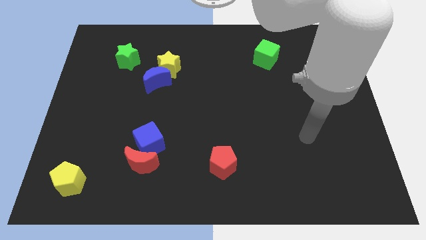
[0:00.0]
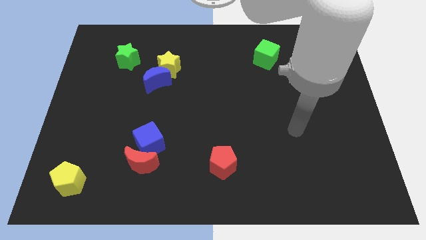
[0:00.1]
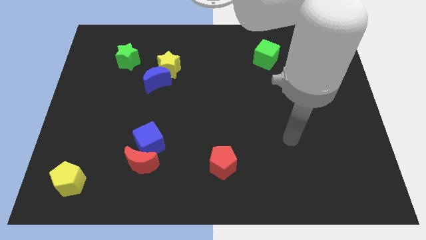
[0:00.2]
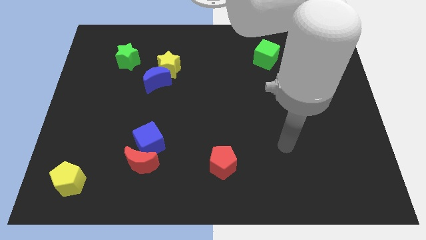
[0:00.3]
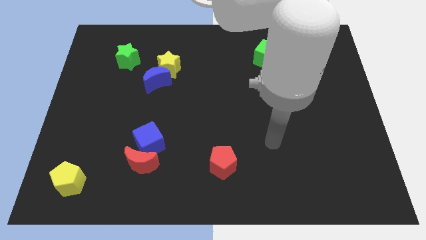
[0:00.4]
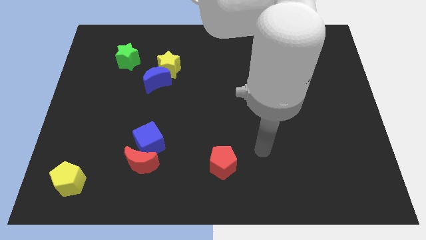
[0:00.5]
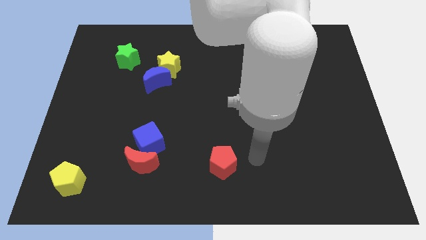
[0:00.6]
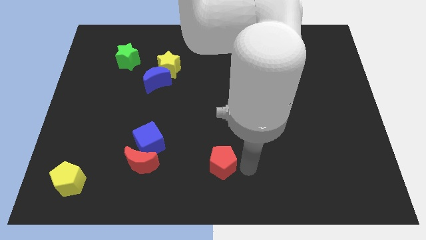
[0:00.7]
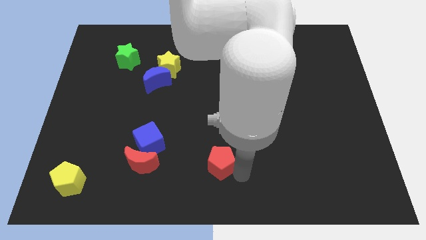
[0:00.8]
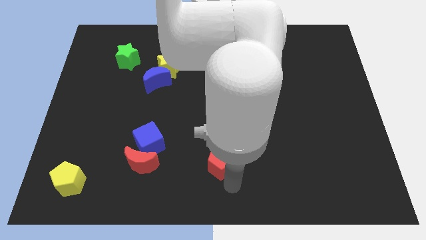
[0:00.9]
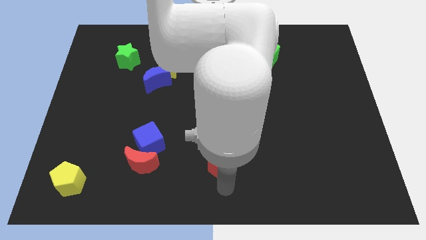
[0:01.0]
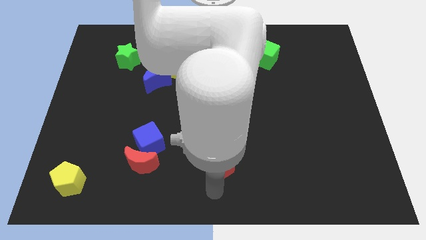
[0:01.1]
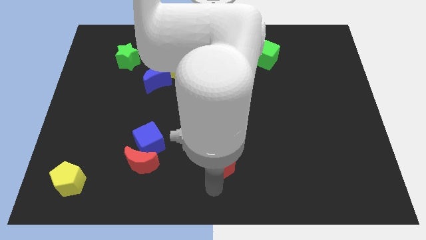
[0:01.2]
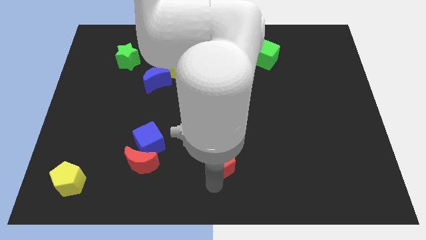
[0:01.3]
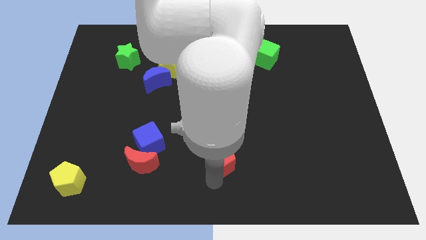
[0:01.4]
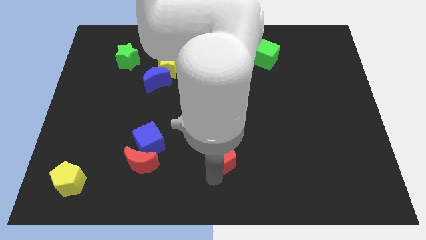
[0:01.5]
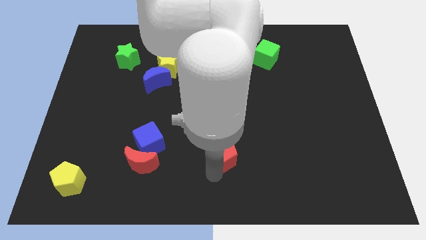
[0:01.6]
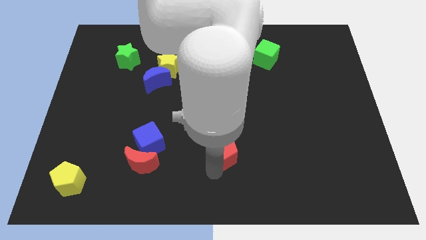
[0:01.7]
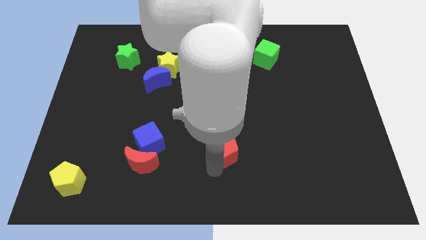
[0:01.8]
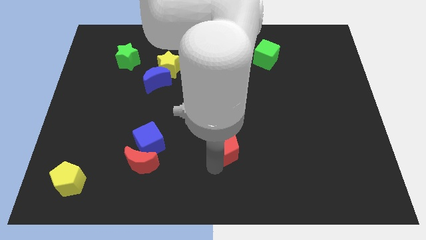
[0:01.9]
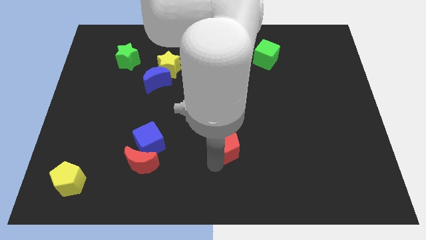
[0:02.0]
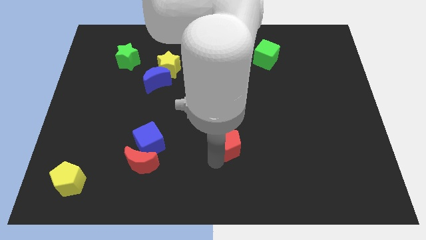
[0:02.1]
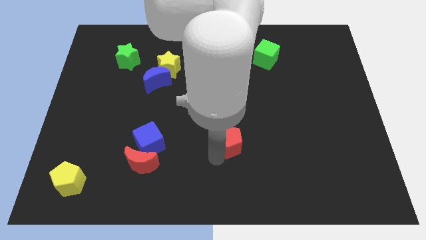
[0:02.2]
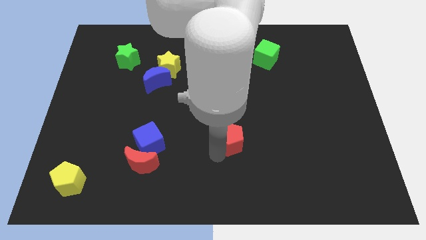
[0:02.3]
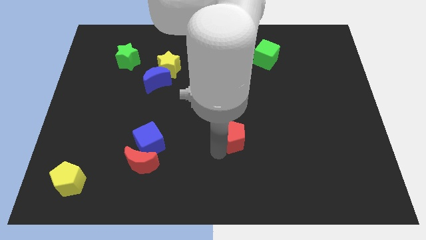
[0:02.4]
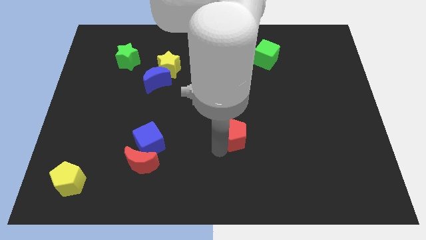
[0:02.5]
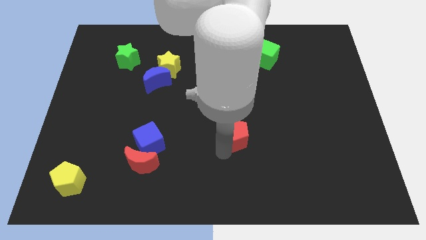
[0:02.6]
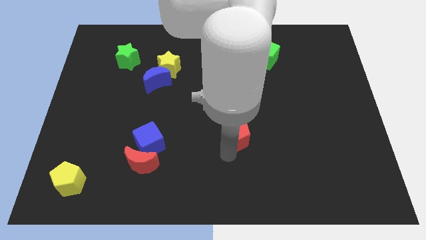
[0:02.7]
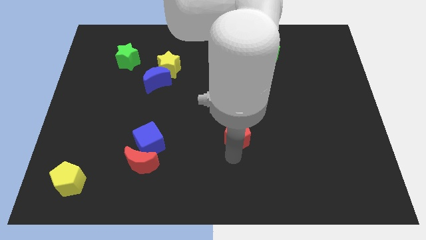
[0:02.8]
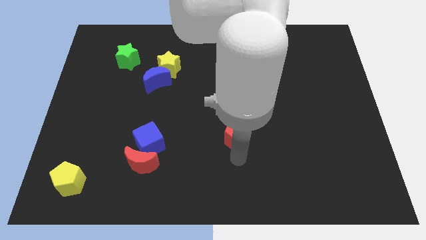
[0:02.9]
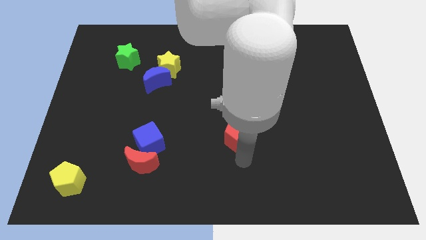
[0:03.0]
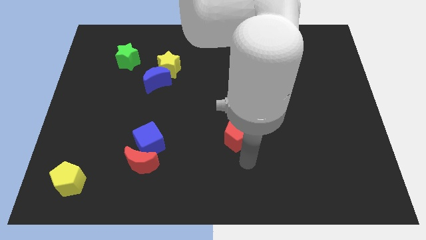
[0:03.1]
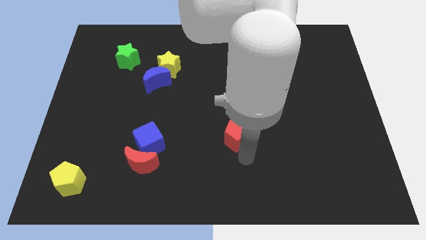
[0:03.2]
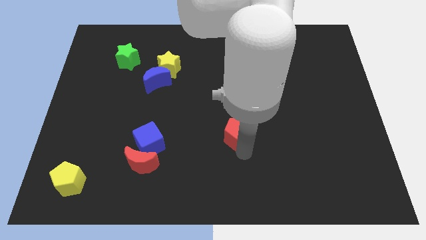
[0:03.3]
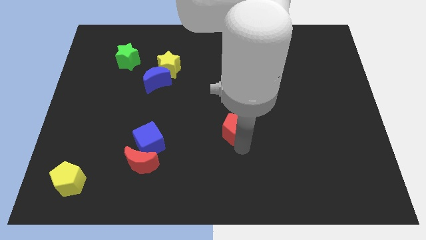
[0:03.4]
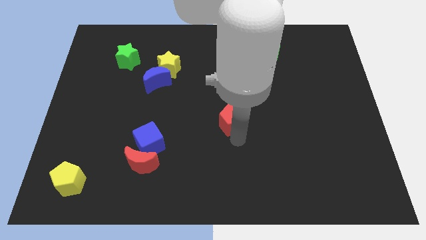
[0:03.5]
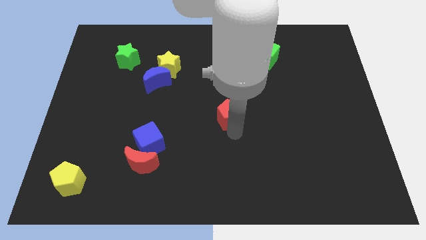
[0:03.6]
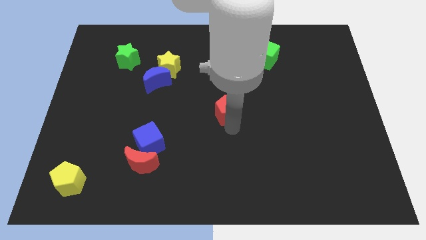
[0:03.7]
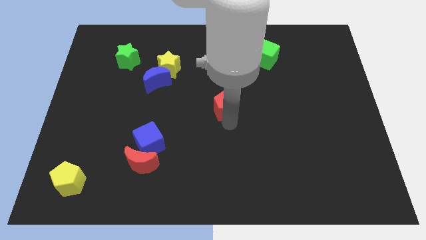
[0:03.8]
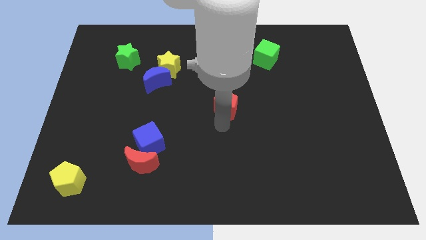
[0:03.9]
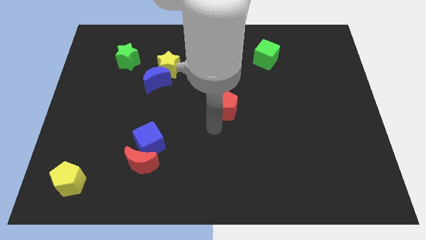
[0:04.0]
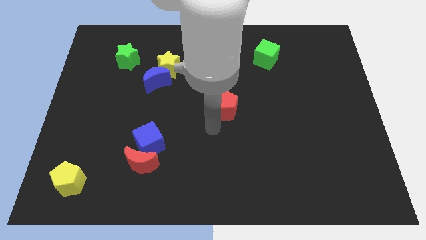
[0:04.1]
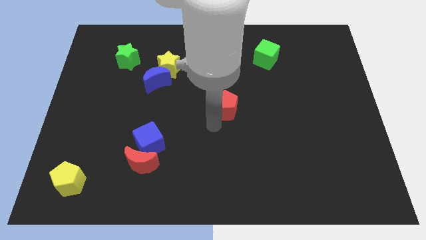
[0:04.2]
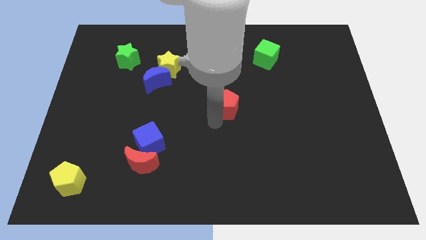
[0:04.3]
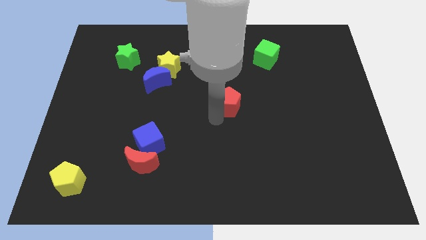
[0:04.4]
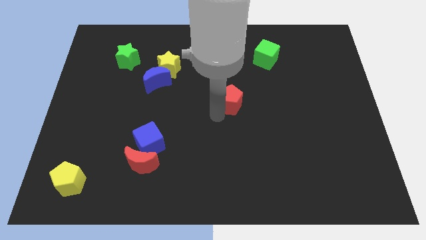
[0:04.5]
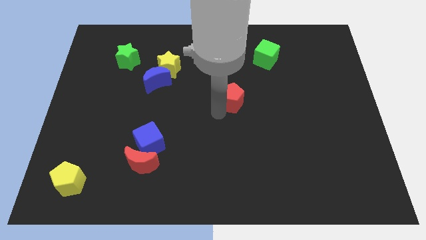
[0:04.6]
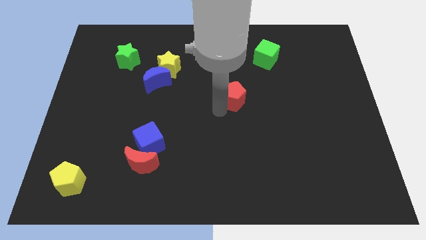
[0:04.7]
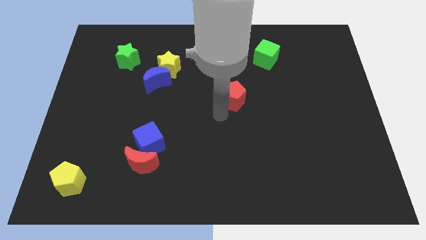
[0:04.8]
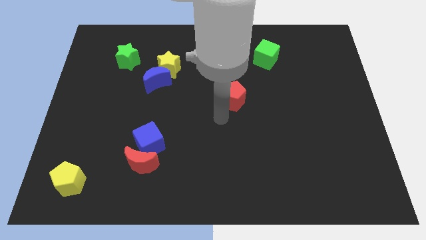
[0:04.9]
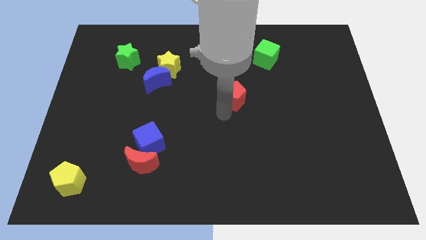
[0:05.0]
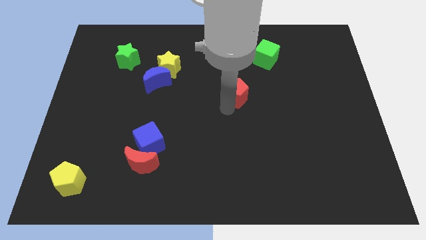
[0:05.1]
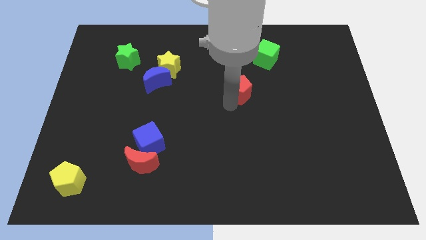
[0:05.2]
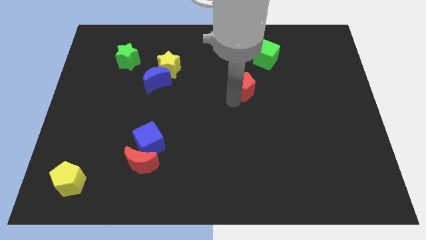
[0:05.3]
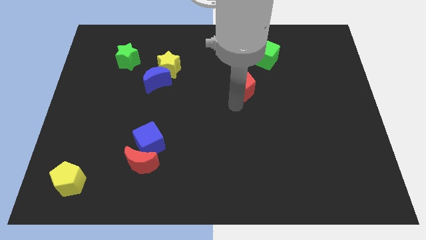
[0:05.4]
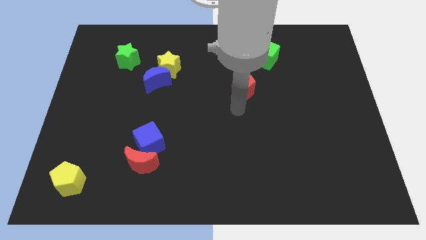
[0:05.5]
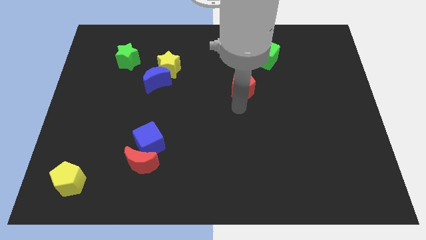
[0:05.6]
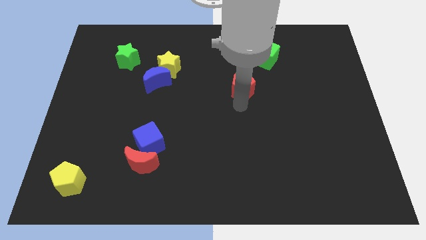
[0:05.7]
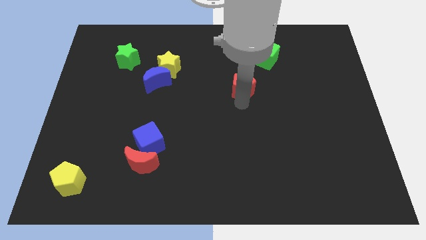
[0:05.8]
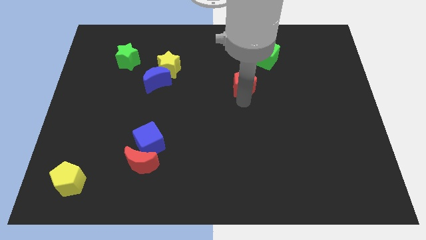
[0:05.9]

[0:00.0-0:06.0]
push the red pentagon diagonally down and to the left of the green cube
